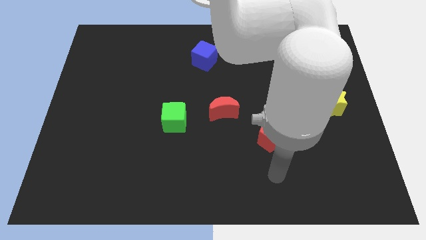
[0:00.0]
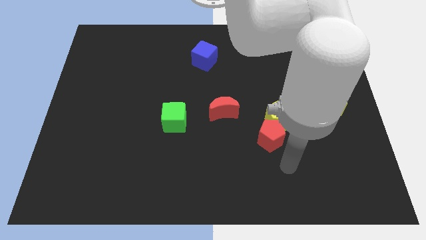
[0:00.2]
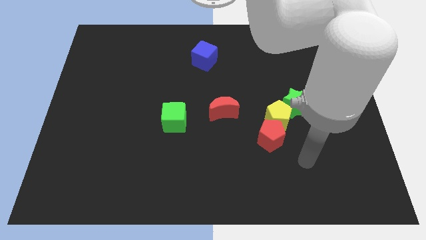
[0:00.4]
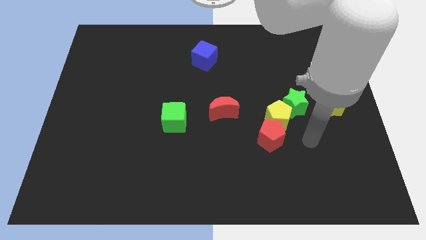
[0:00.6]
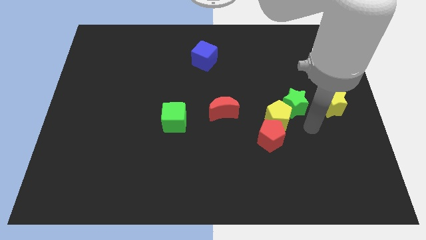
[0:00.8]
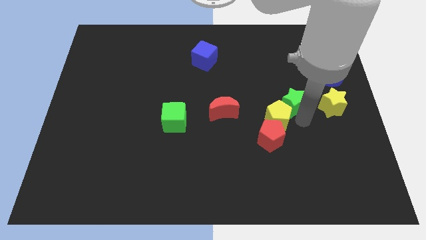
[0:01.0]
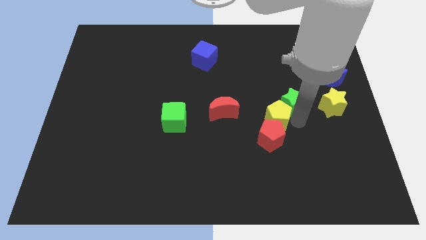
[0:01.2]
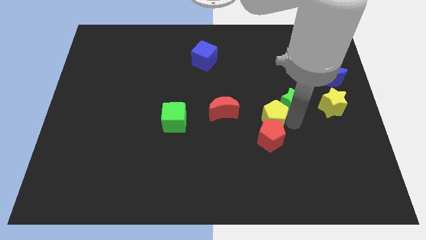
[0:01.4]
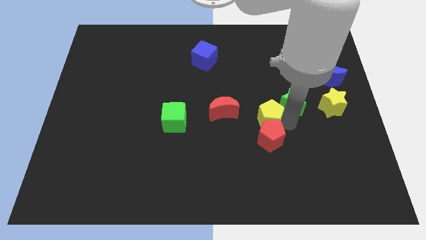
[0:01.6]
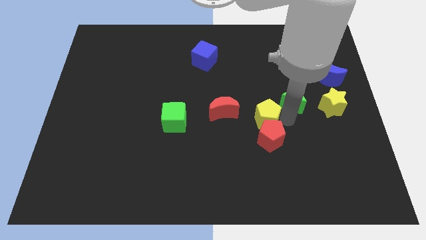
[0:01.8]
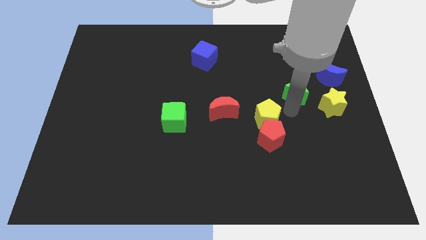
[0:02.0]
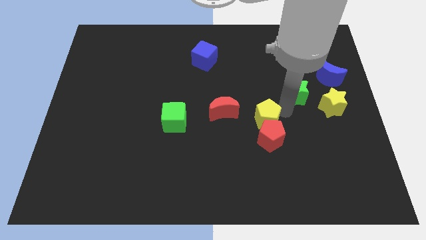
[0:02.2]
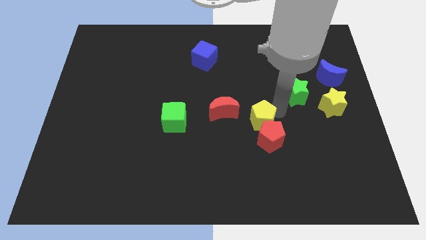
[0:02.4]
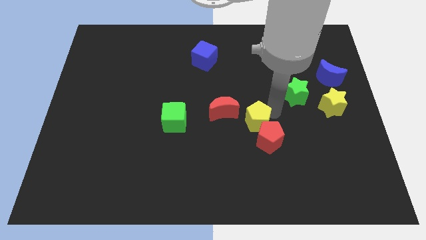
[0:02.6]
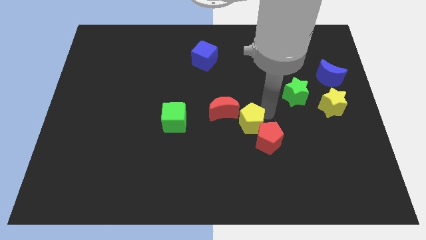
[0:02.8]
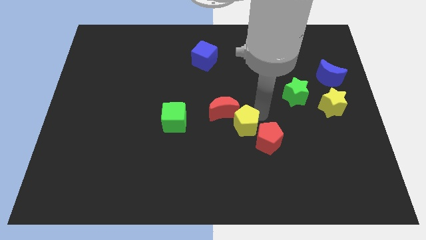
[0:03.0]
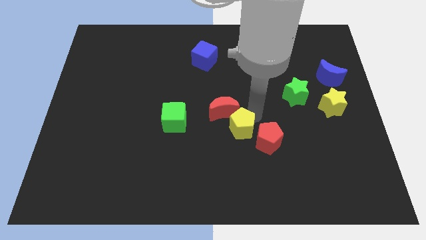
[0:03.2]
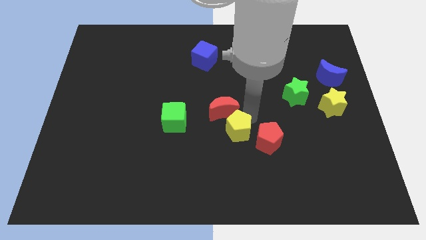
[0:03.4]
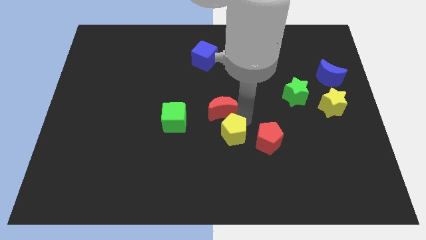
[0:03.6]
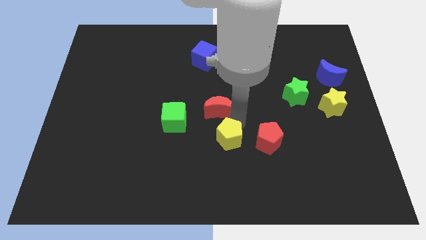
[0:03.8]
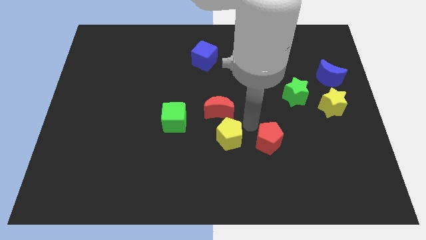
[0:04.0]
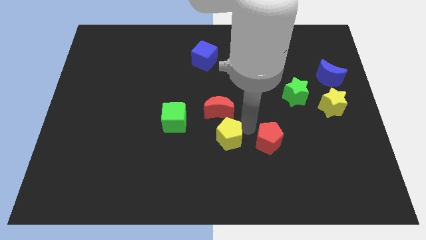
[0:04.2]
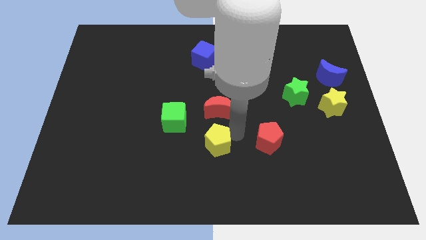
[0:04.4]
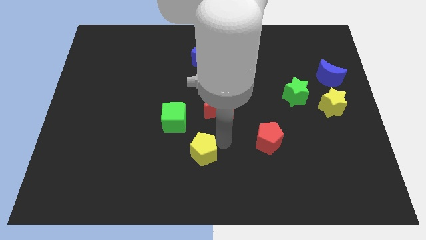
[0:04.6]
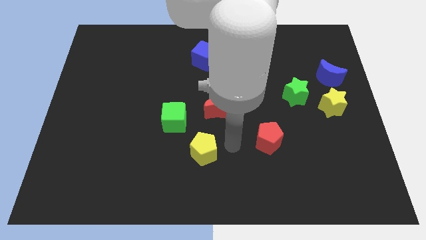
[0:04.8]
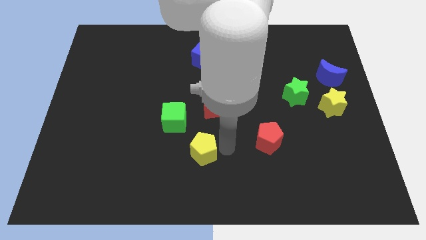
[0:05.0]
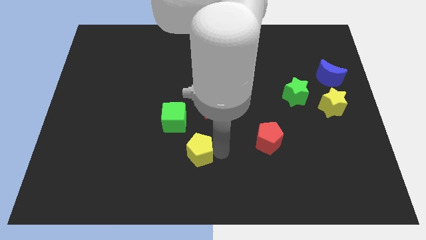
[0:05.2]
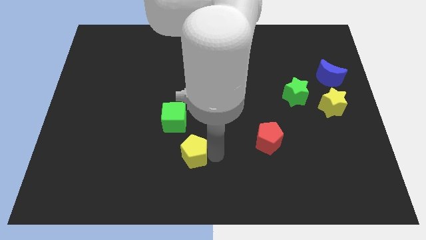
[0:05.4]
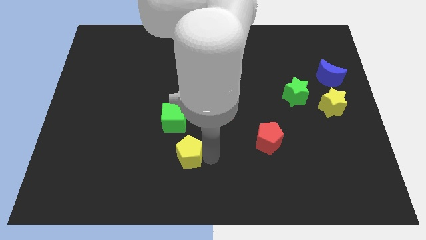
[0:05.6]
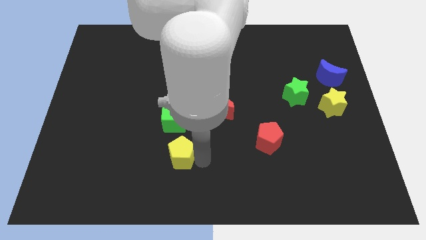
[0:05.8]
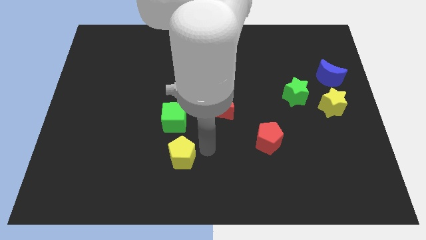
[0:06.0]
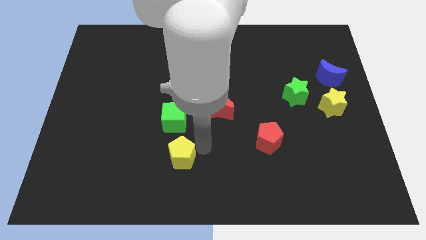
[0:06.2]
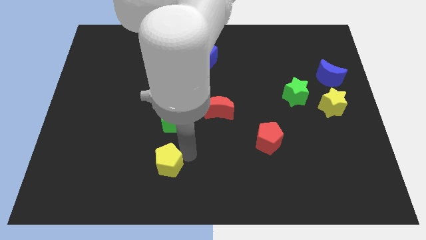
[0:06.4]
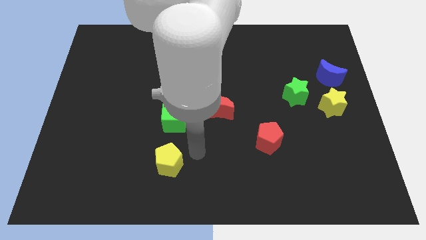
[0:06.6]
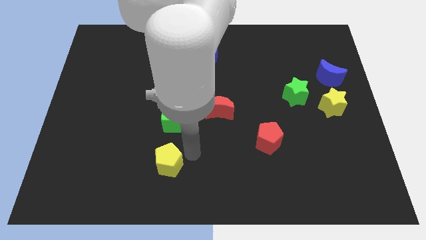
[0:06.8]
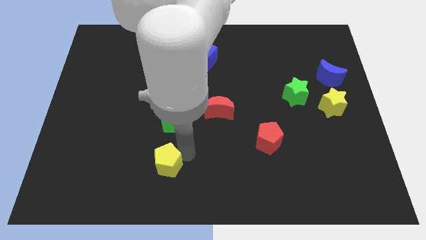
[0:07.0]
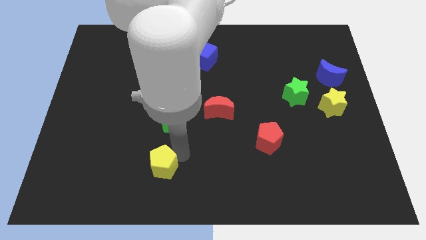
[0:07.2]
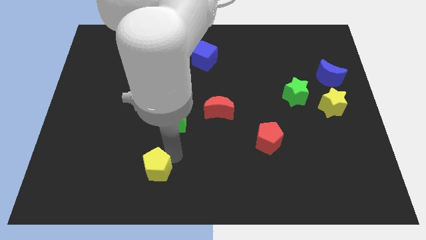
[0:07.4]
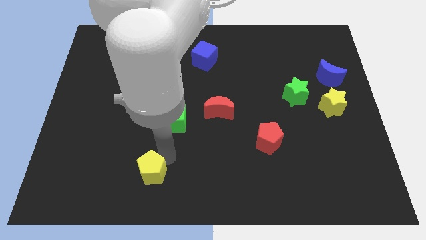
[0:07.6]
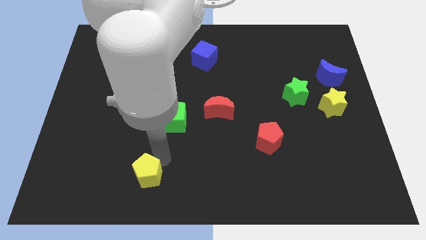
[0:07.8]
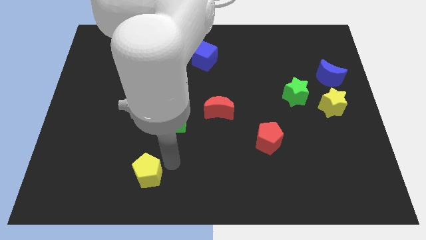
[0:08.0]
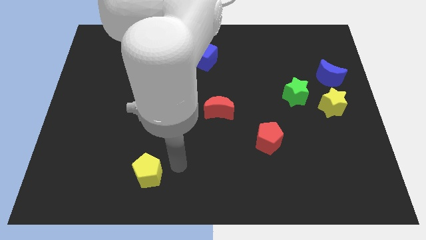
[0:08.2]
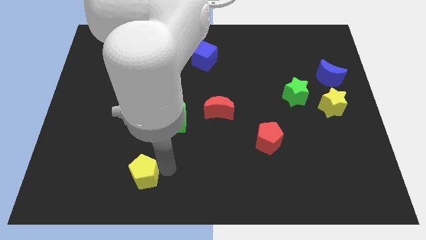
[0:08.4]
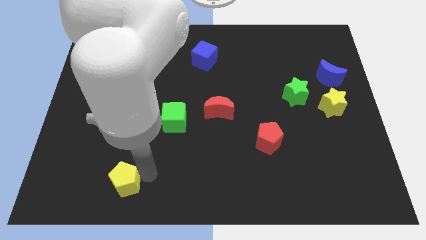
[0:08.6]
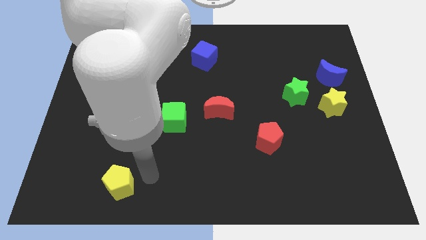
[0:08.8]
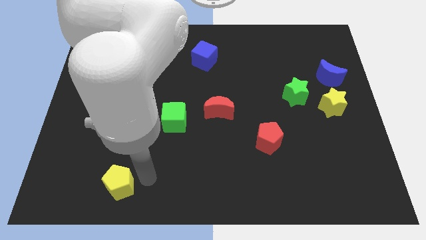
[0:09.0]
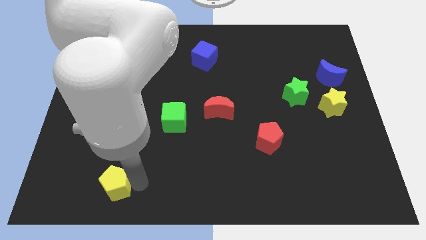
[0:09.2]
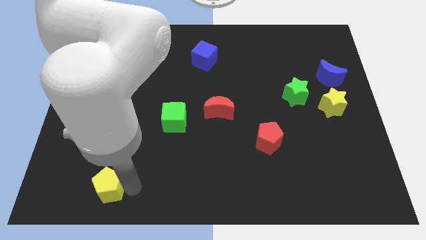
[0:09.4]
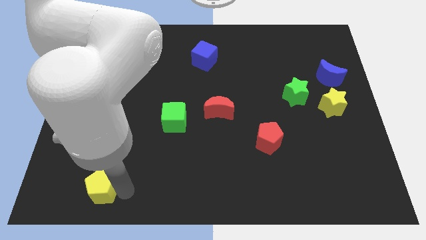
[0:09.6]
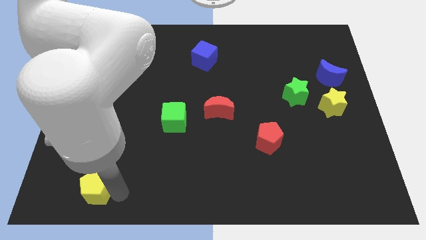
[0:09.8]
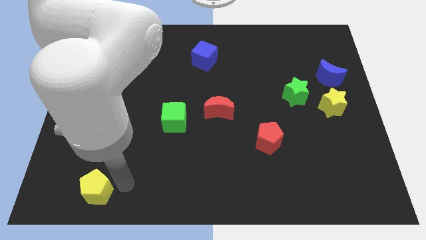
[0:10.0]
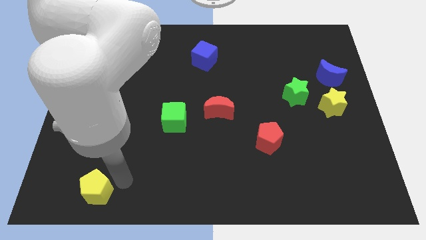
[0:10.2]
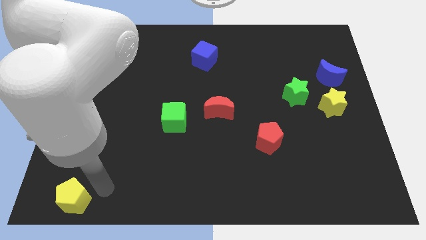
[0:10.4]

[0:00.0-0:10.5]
push the yellow pentagon to the lower left corner

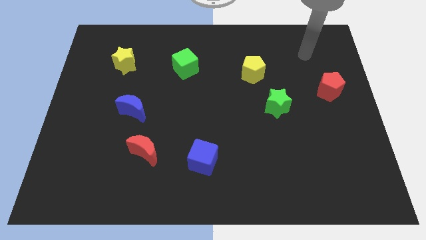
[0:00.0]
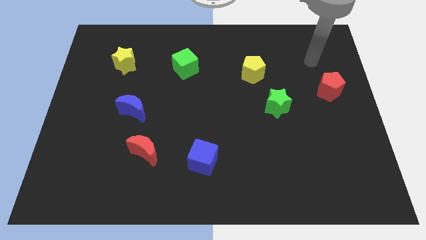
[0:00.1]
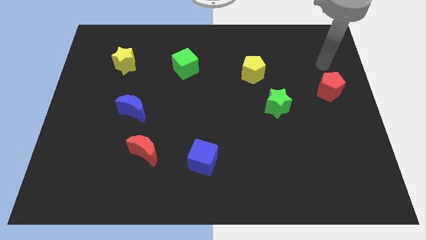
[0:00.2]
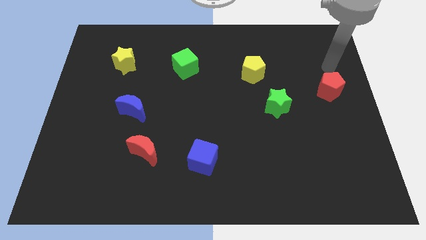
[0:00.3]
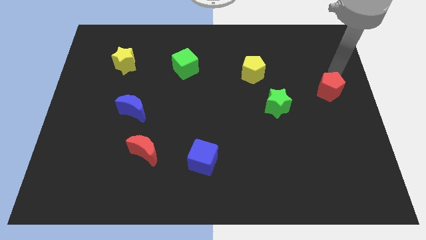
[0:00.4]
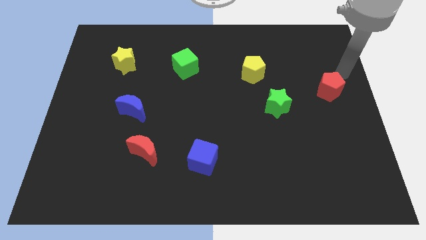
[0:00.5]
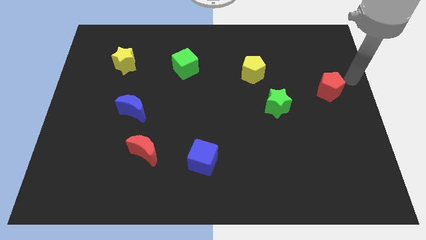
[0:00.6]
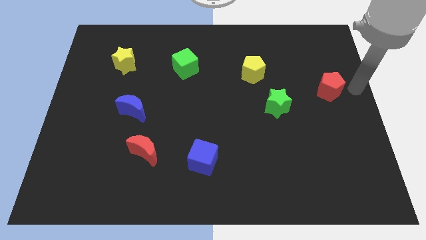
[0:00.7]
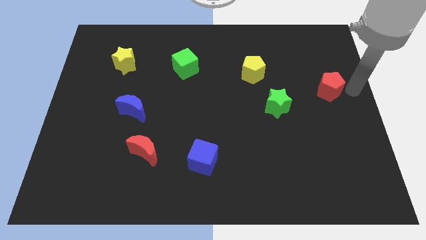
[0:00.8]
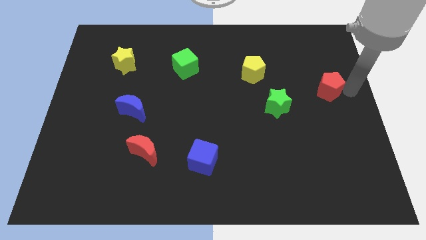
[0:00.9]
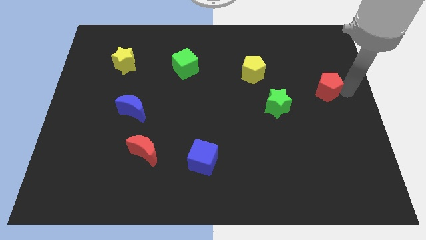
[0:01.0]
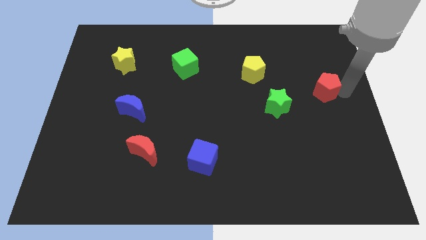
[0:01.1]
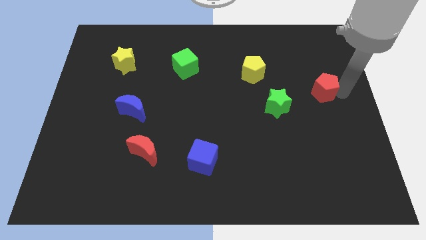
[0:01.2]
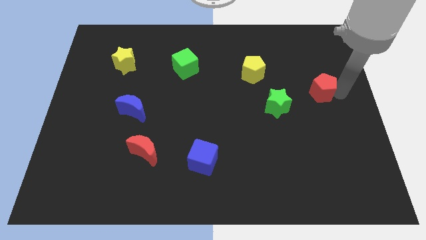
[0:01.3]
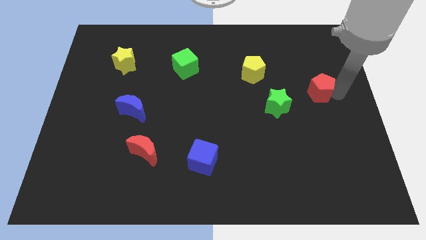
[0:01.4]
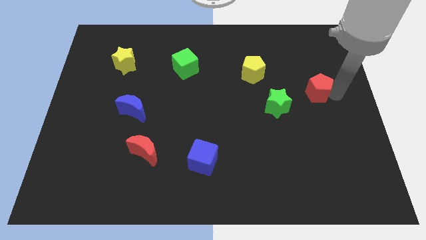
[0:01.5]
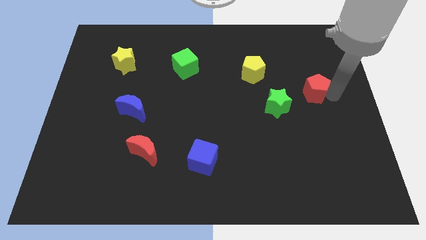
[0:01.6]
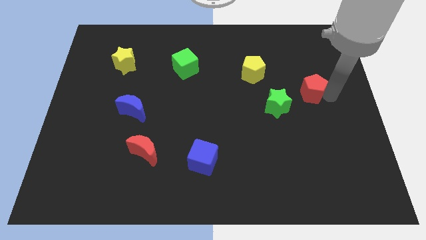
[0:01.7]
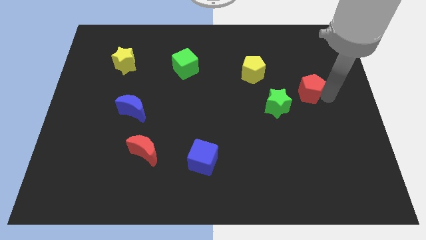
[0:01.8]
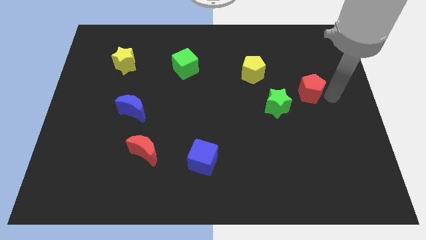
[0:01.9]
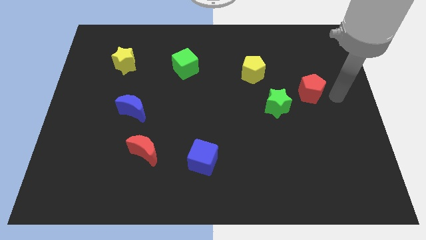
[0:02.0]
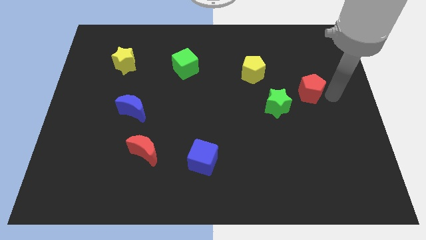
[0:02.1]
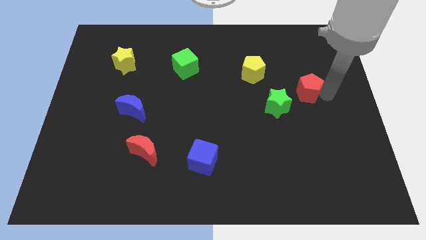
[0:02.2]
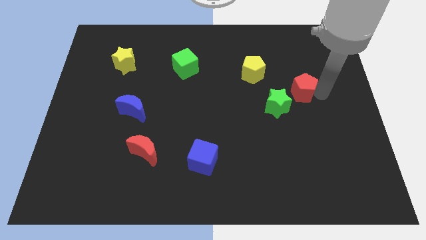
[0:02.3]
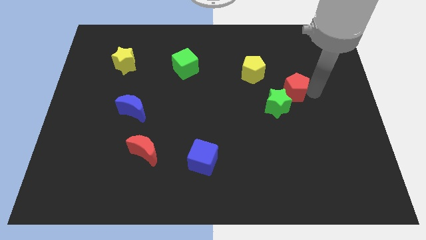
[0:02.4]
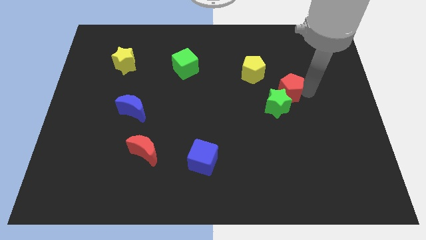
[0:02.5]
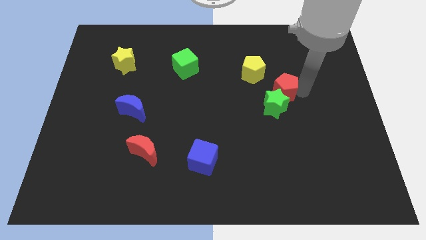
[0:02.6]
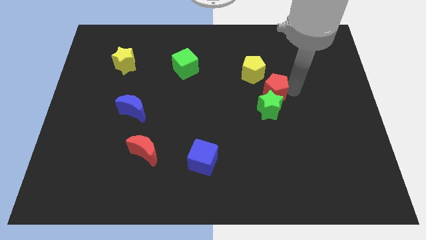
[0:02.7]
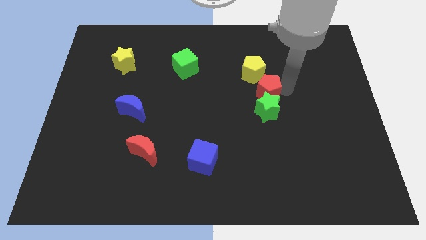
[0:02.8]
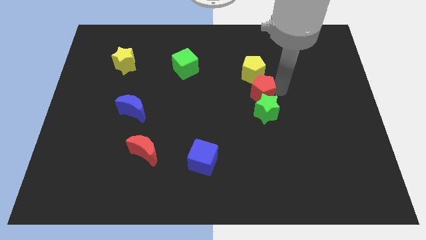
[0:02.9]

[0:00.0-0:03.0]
slide the red pentagon to the middle
